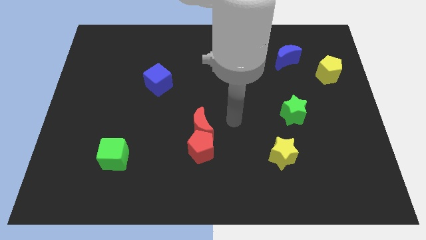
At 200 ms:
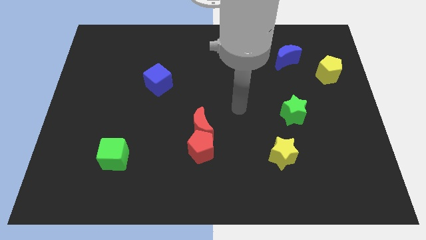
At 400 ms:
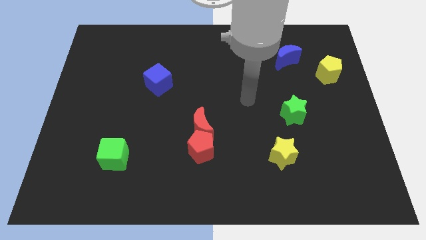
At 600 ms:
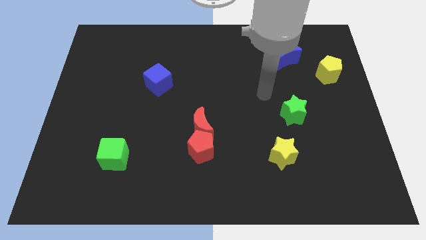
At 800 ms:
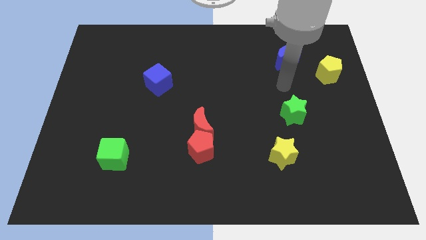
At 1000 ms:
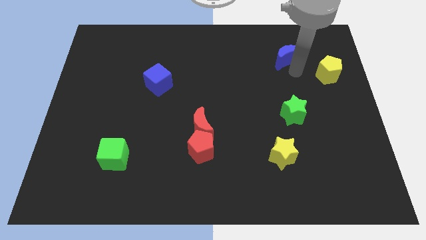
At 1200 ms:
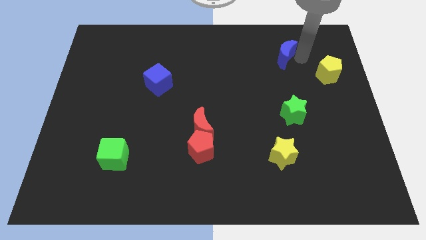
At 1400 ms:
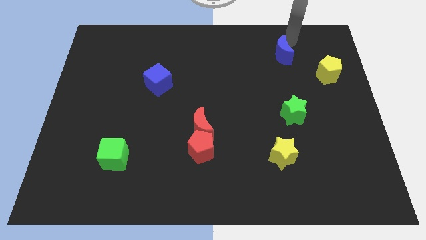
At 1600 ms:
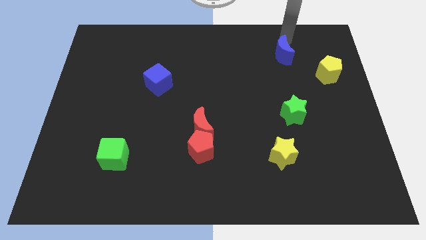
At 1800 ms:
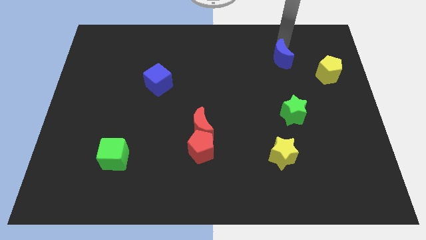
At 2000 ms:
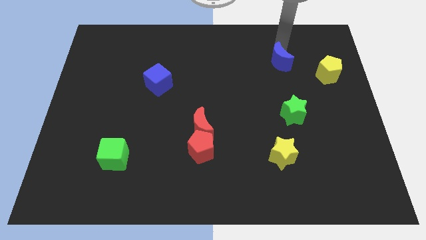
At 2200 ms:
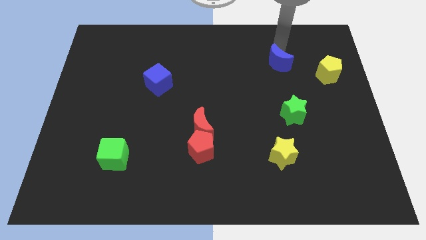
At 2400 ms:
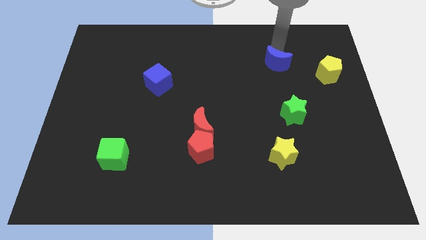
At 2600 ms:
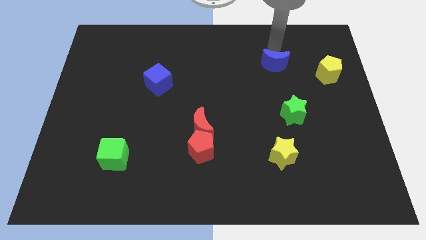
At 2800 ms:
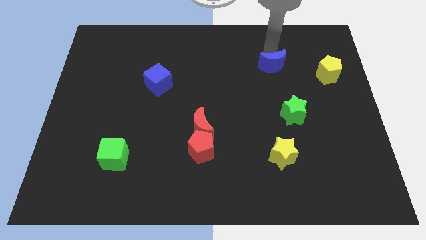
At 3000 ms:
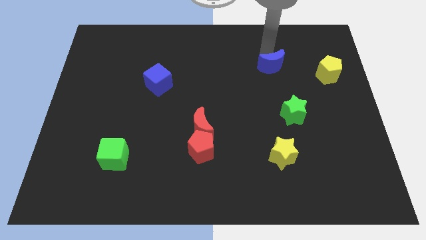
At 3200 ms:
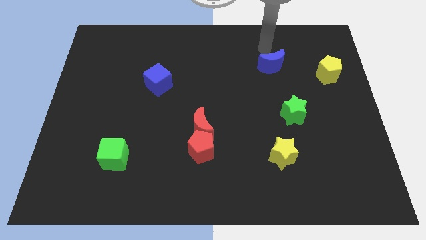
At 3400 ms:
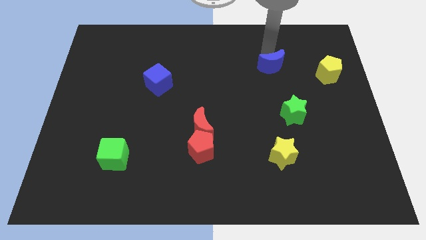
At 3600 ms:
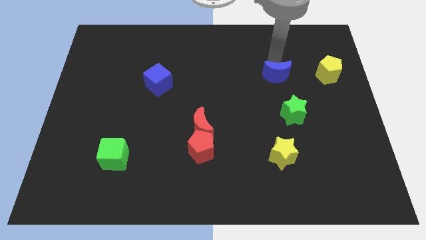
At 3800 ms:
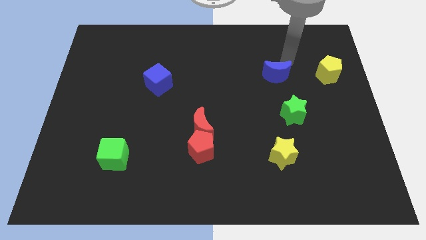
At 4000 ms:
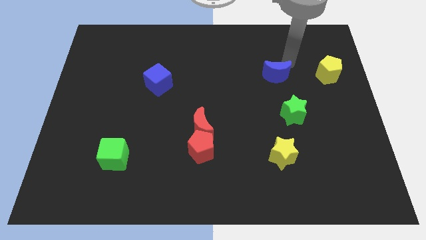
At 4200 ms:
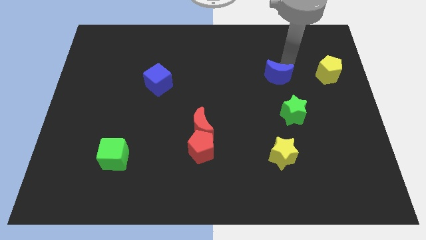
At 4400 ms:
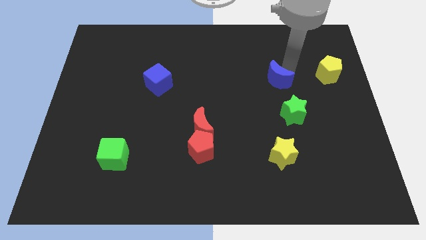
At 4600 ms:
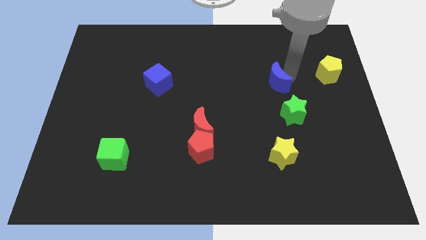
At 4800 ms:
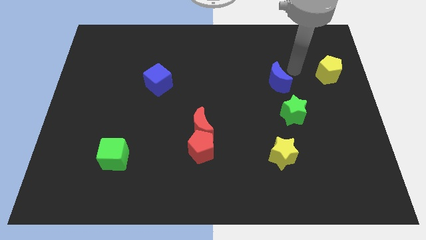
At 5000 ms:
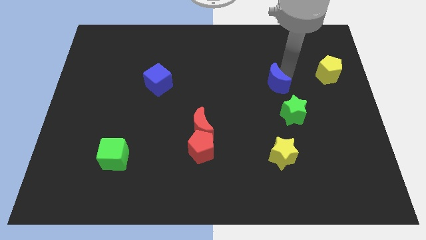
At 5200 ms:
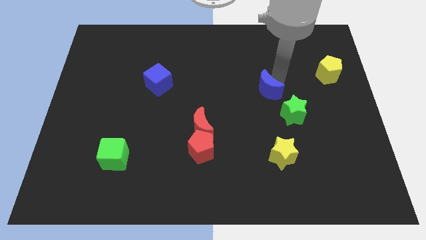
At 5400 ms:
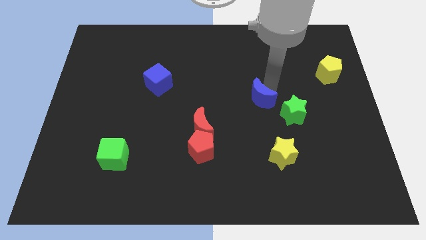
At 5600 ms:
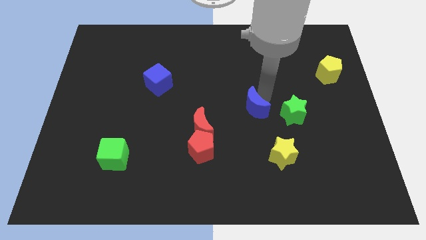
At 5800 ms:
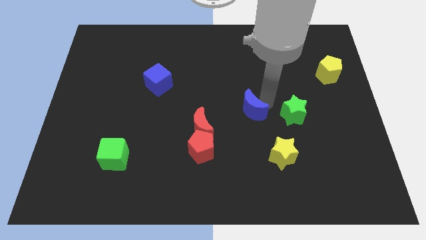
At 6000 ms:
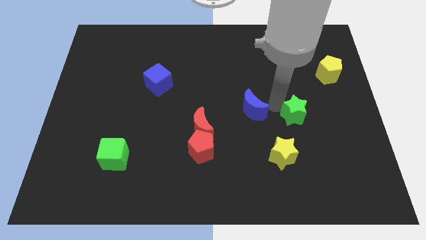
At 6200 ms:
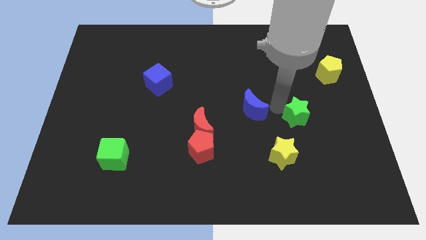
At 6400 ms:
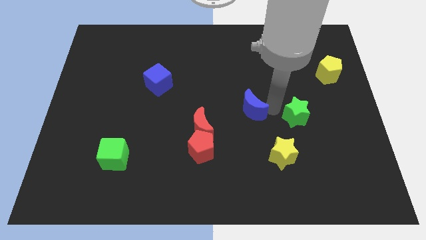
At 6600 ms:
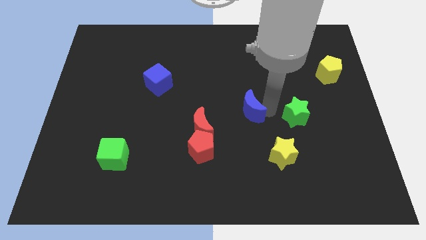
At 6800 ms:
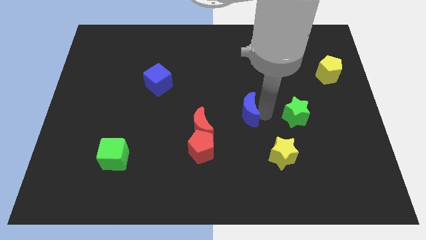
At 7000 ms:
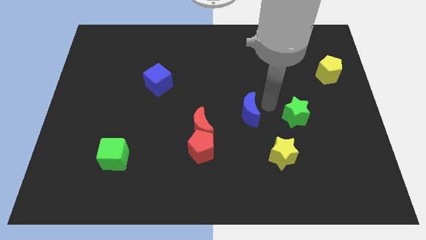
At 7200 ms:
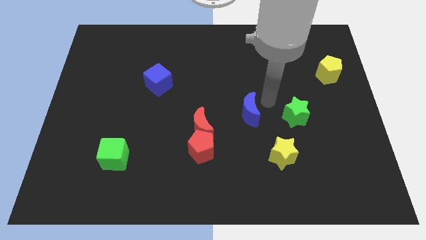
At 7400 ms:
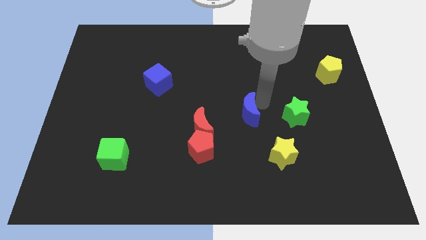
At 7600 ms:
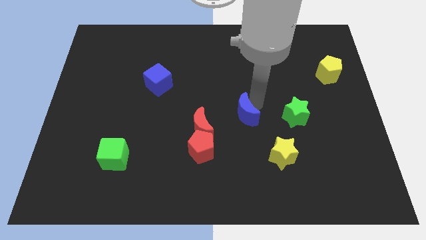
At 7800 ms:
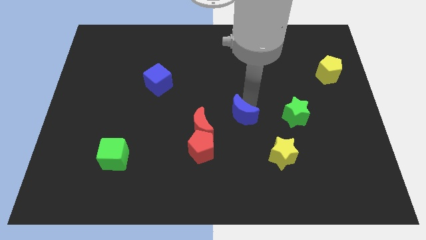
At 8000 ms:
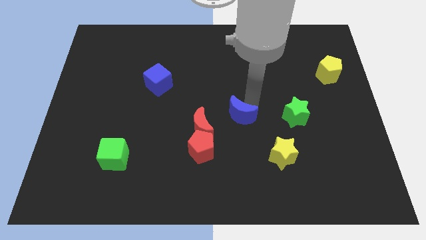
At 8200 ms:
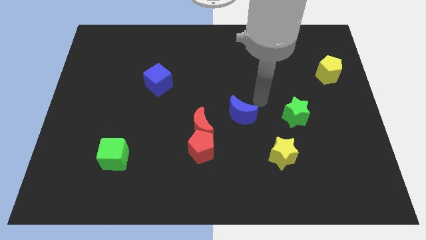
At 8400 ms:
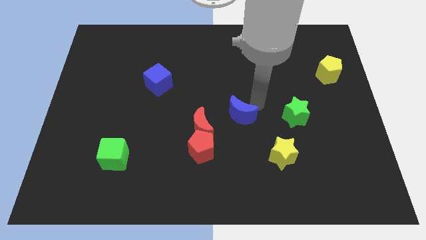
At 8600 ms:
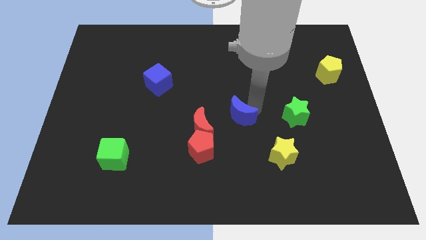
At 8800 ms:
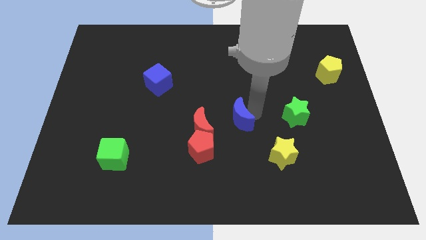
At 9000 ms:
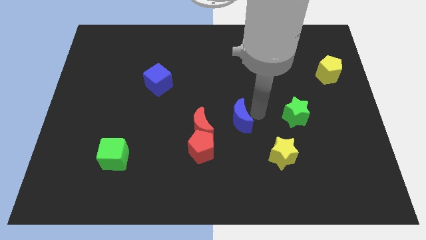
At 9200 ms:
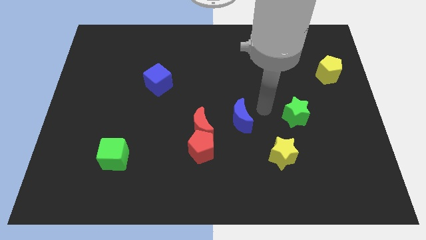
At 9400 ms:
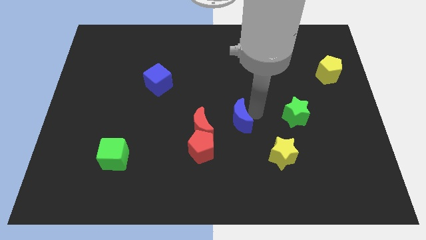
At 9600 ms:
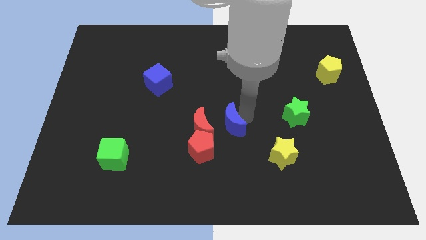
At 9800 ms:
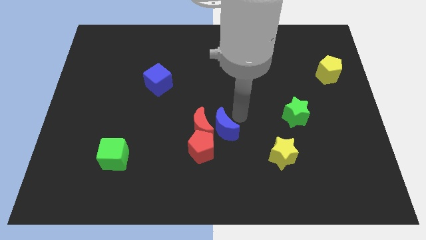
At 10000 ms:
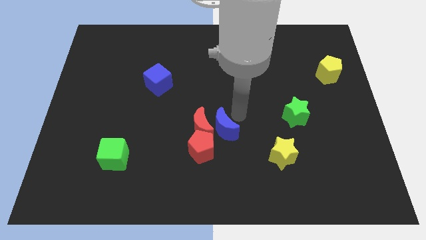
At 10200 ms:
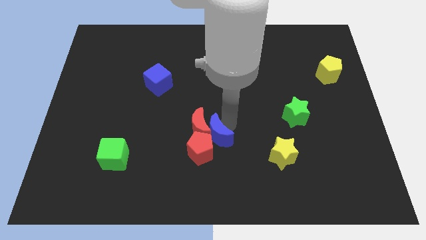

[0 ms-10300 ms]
put the blue moon to the red pentagon

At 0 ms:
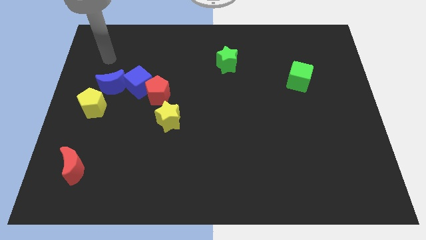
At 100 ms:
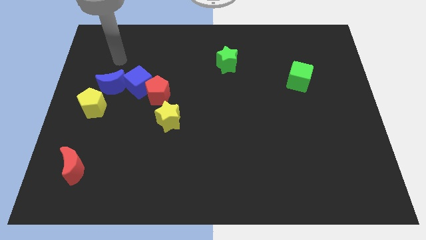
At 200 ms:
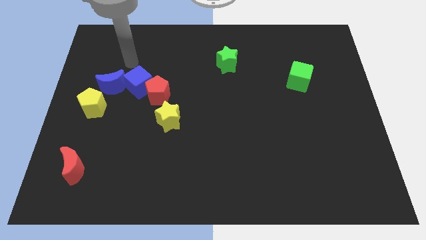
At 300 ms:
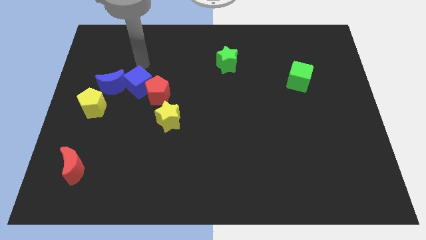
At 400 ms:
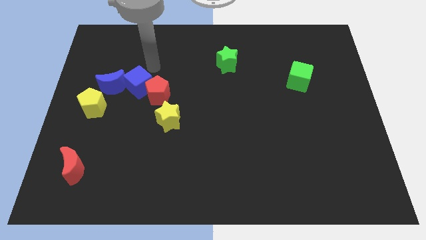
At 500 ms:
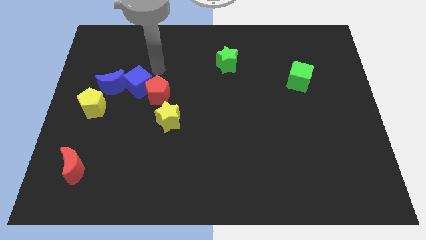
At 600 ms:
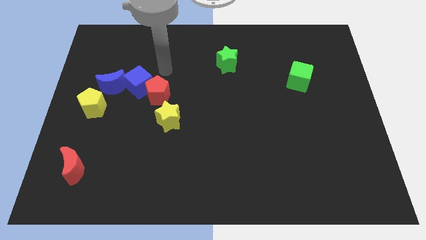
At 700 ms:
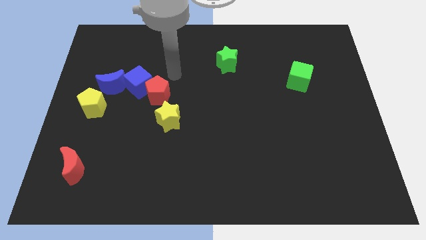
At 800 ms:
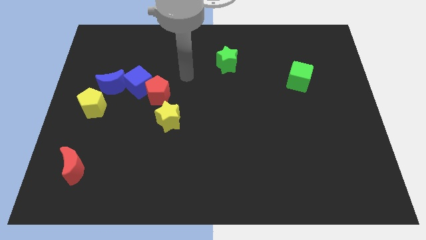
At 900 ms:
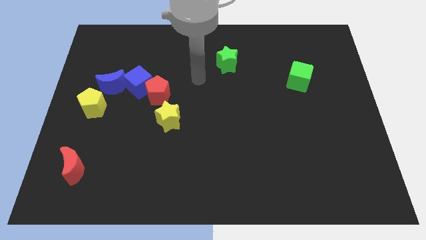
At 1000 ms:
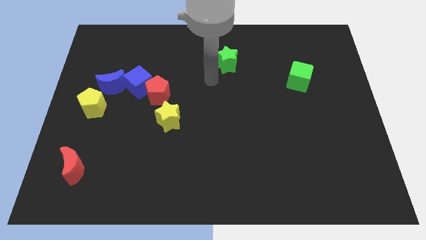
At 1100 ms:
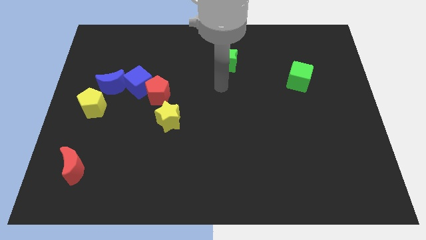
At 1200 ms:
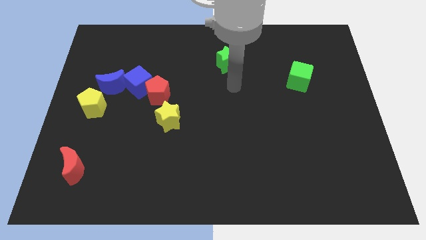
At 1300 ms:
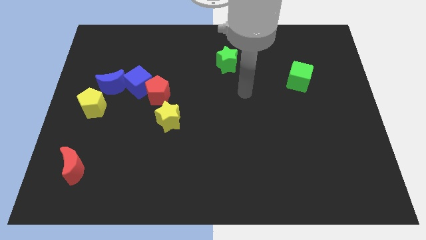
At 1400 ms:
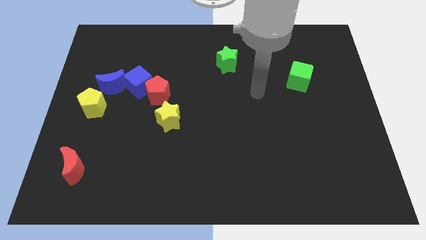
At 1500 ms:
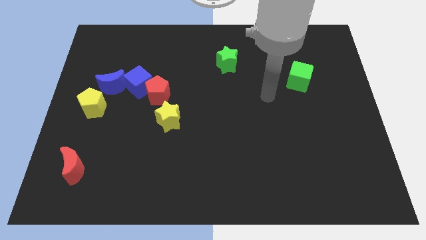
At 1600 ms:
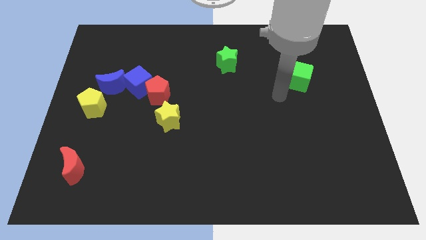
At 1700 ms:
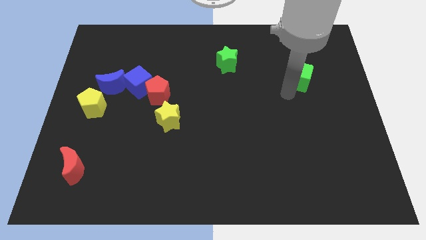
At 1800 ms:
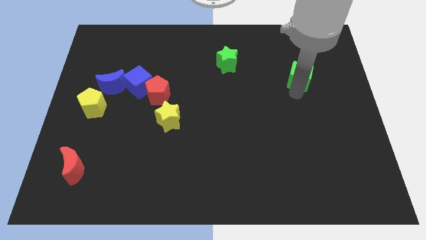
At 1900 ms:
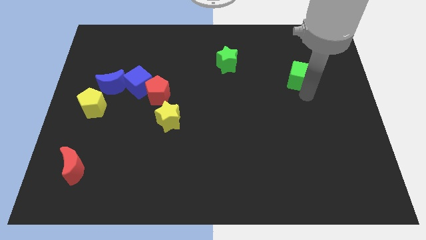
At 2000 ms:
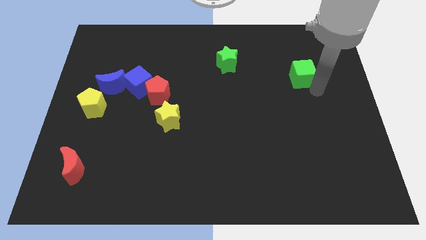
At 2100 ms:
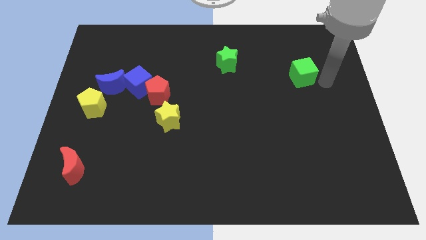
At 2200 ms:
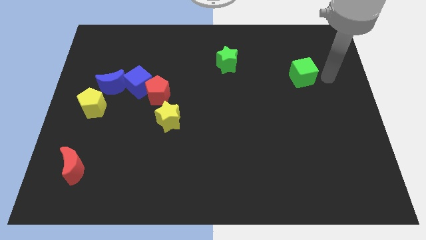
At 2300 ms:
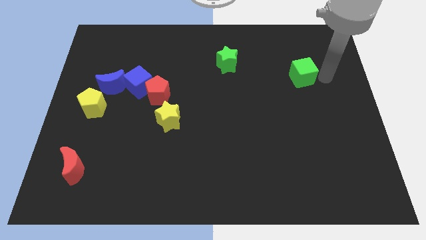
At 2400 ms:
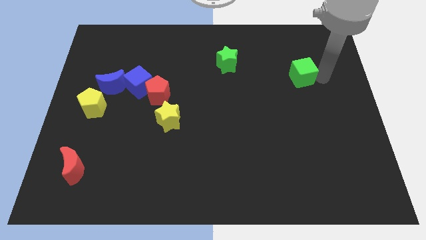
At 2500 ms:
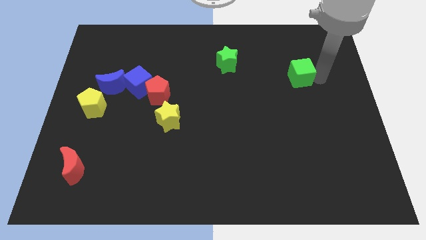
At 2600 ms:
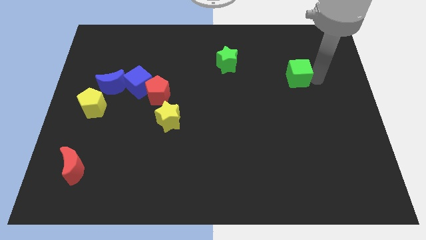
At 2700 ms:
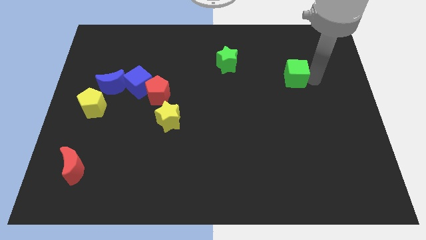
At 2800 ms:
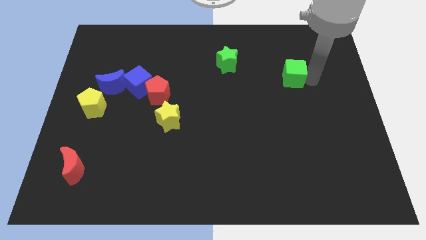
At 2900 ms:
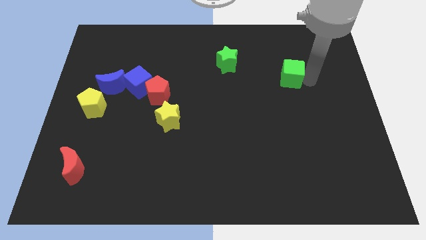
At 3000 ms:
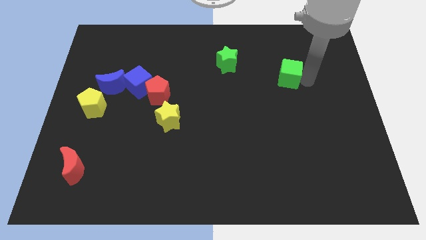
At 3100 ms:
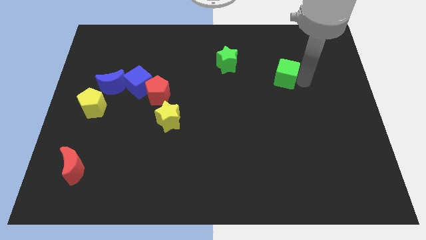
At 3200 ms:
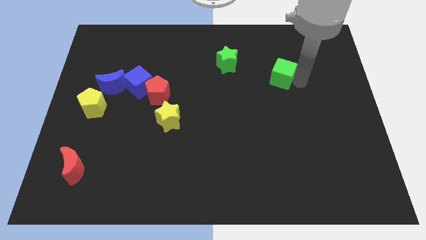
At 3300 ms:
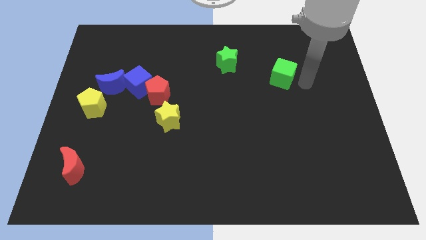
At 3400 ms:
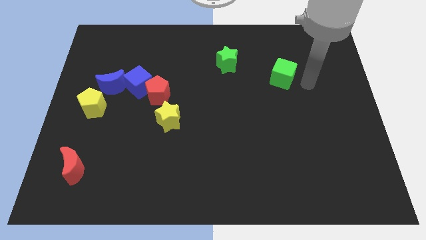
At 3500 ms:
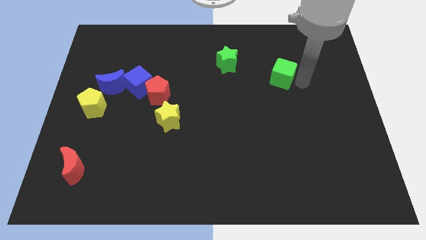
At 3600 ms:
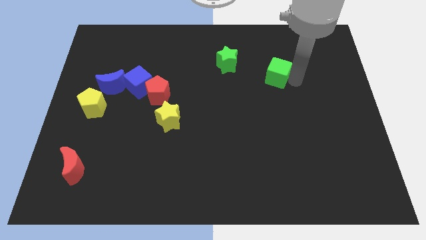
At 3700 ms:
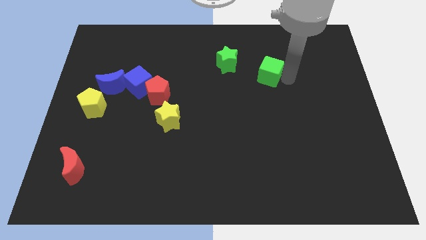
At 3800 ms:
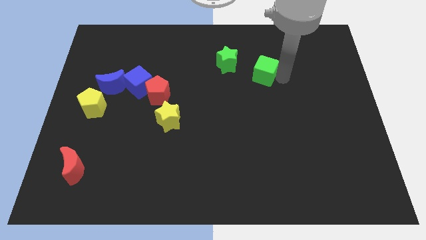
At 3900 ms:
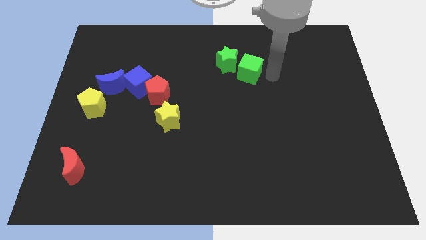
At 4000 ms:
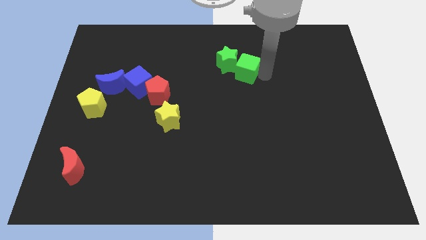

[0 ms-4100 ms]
move the green cube towards the green star
